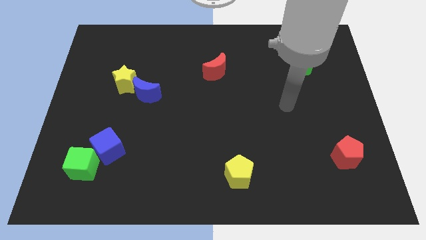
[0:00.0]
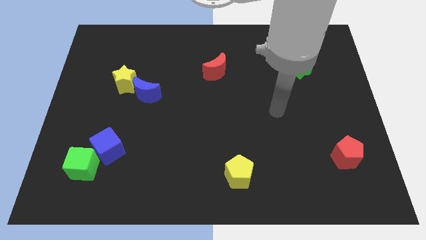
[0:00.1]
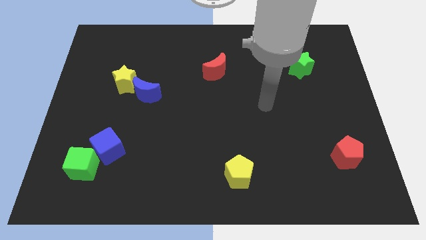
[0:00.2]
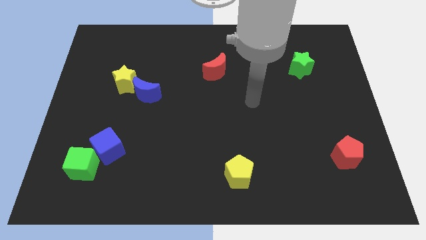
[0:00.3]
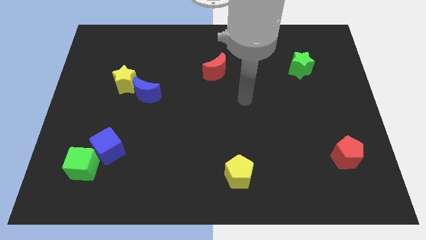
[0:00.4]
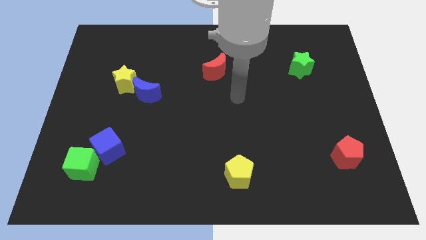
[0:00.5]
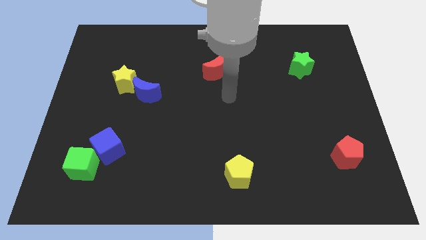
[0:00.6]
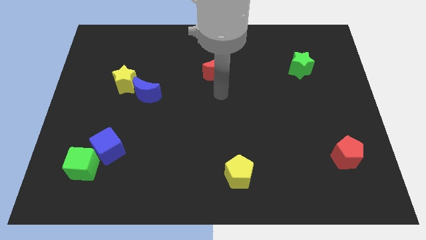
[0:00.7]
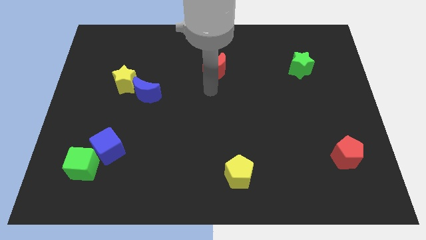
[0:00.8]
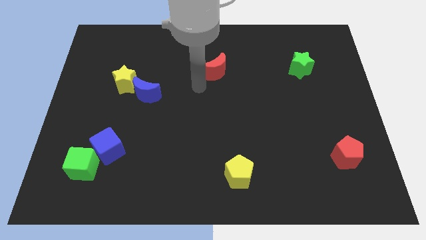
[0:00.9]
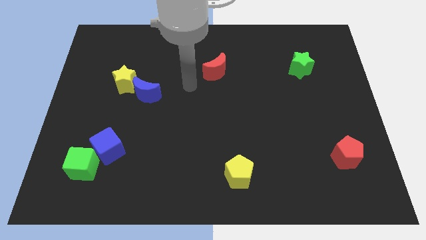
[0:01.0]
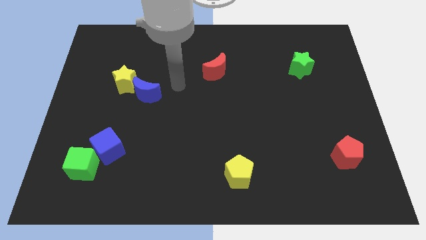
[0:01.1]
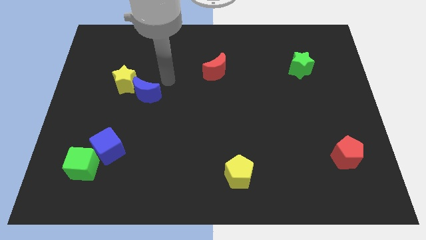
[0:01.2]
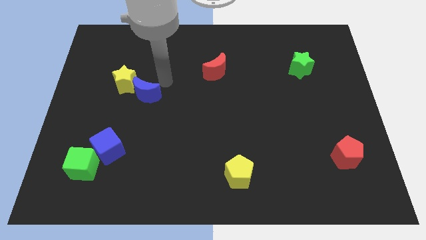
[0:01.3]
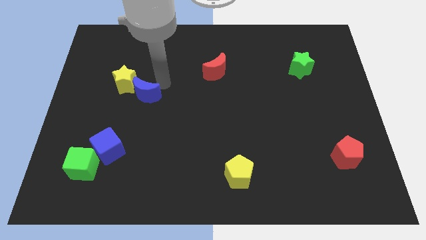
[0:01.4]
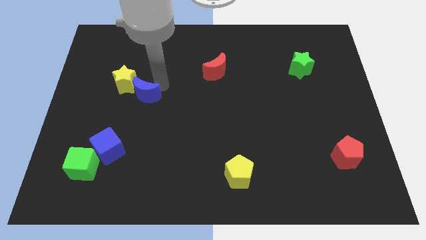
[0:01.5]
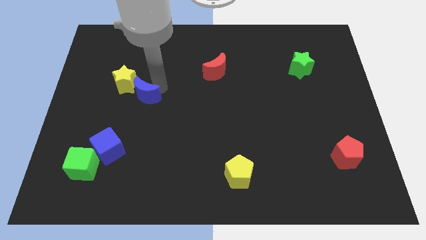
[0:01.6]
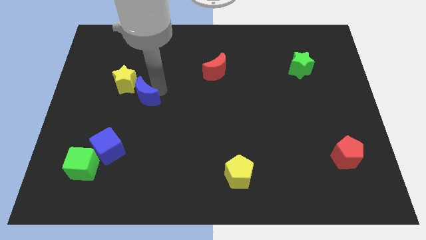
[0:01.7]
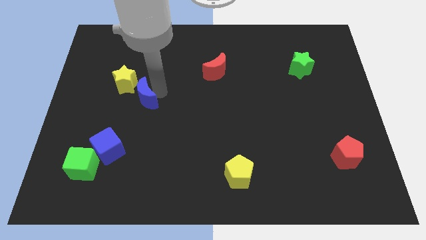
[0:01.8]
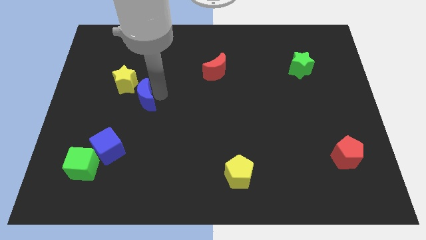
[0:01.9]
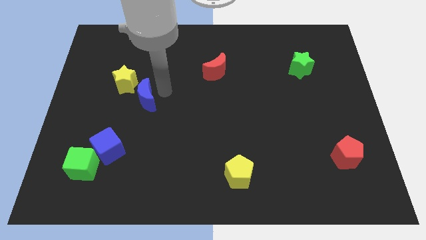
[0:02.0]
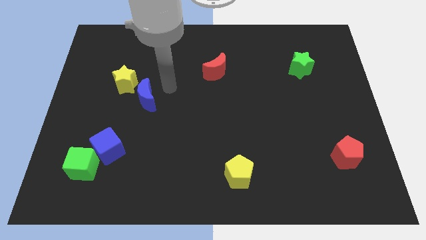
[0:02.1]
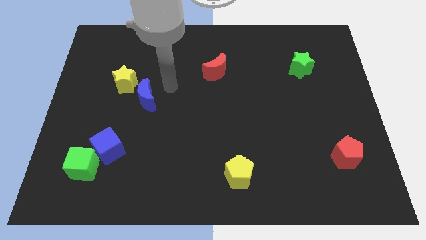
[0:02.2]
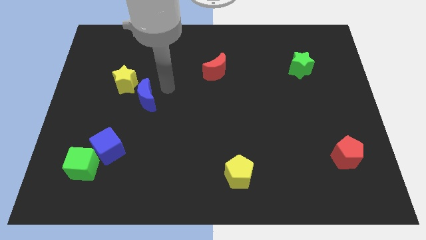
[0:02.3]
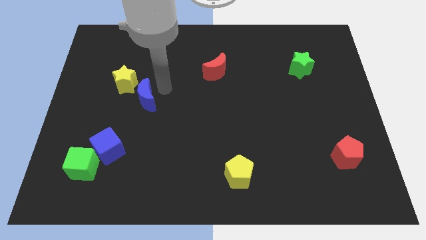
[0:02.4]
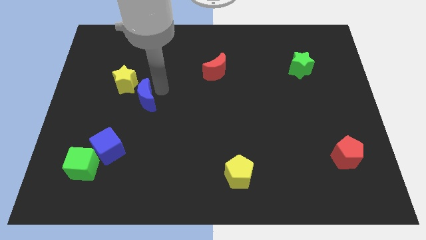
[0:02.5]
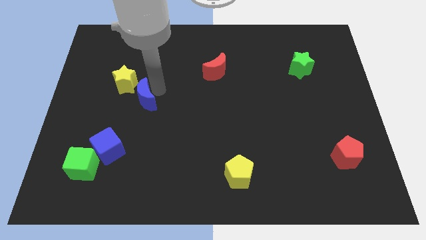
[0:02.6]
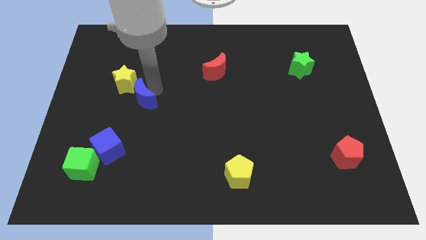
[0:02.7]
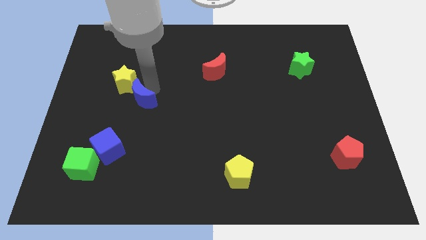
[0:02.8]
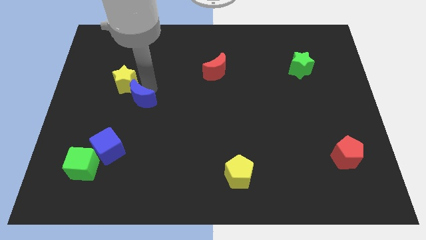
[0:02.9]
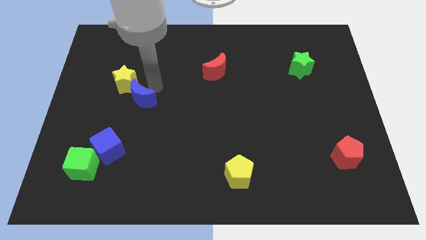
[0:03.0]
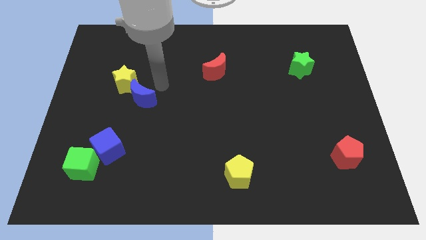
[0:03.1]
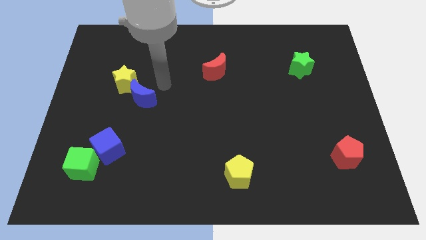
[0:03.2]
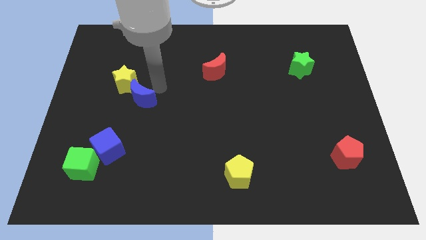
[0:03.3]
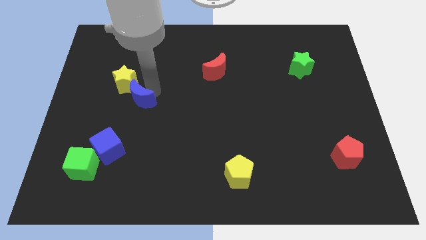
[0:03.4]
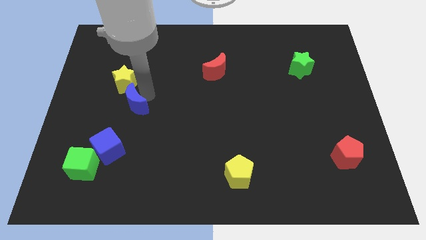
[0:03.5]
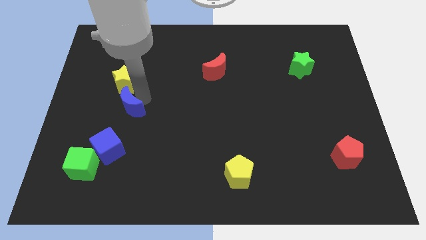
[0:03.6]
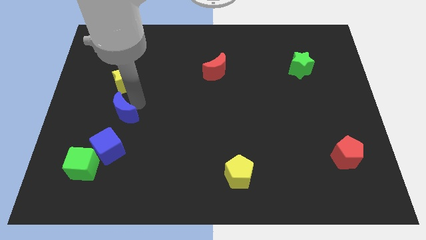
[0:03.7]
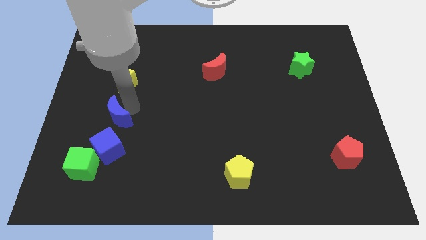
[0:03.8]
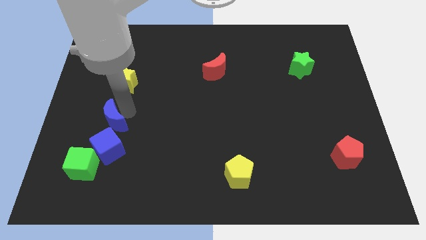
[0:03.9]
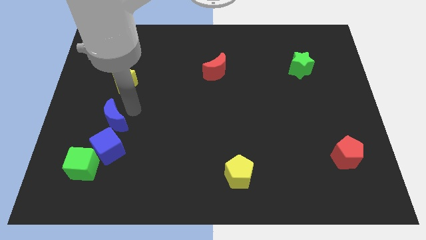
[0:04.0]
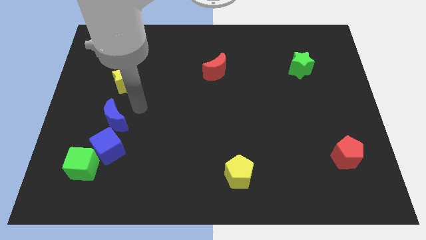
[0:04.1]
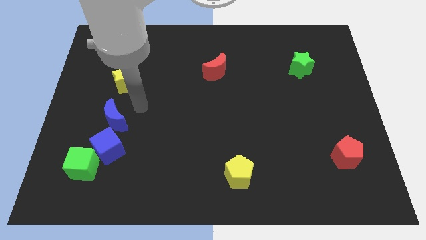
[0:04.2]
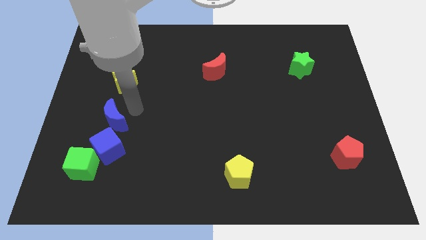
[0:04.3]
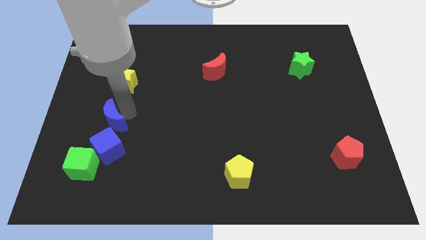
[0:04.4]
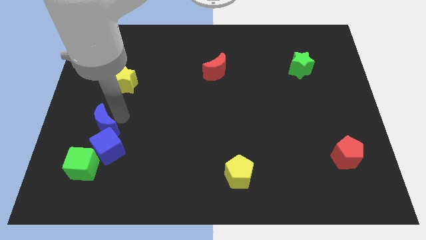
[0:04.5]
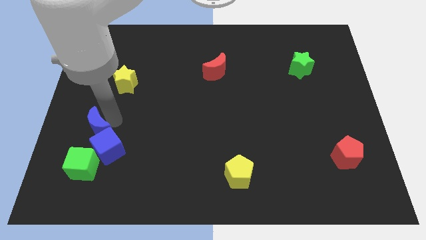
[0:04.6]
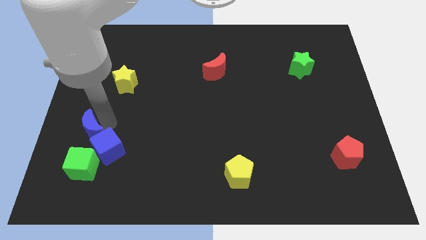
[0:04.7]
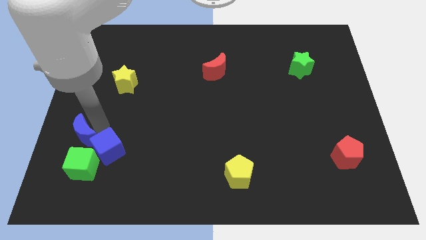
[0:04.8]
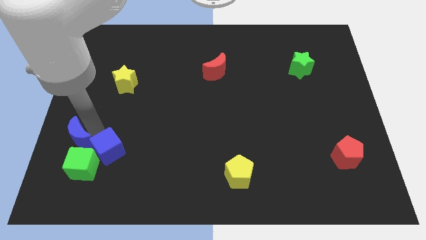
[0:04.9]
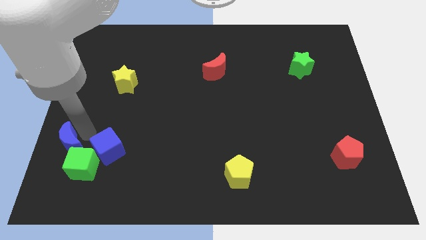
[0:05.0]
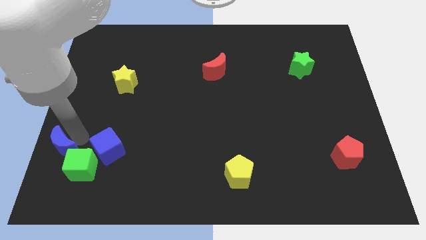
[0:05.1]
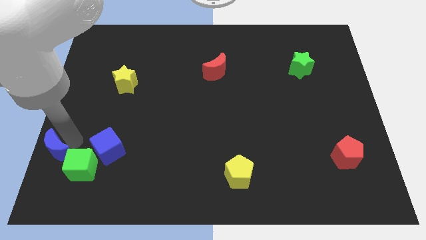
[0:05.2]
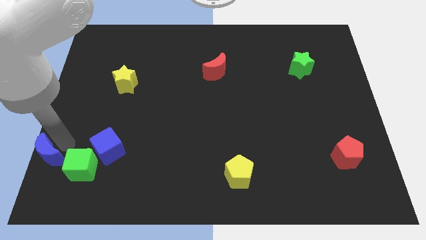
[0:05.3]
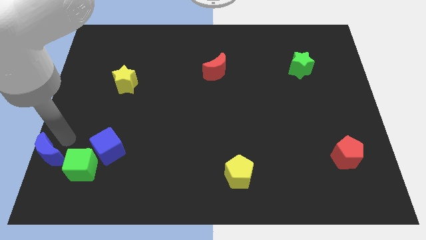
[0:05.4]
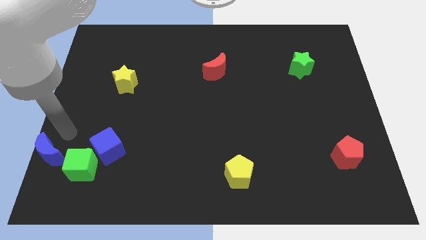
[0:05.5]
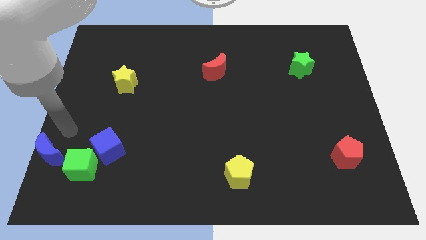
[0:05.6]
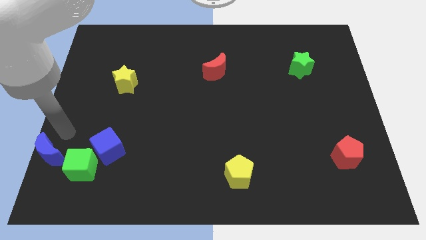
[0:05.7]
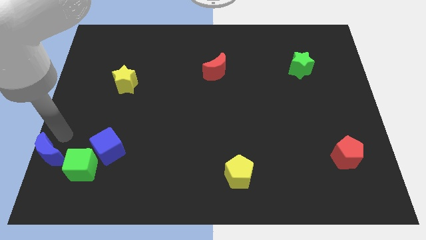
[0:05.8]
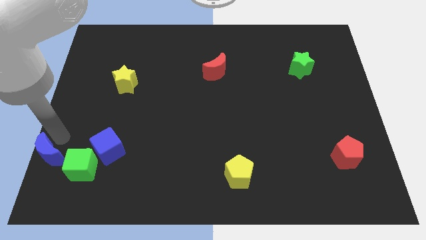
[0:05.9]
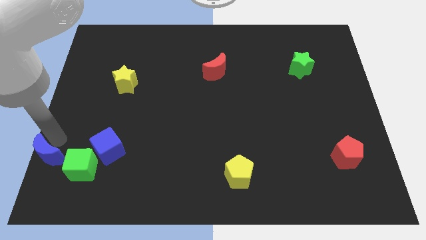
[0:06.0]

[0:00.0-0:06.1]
slide the blue moon to the lower left corner
